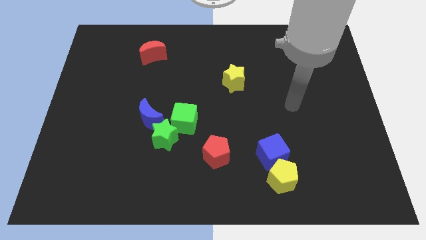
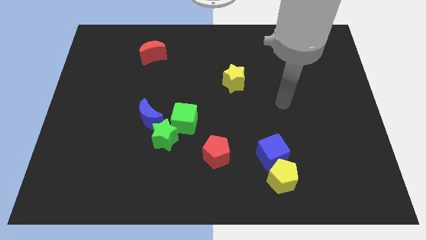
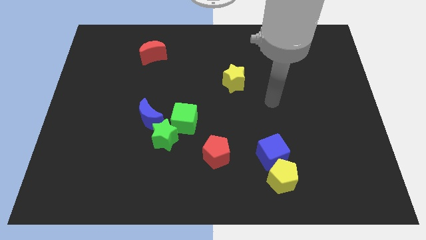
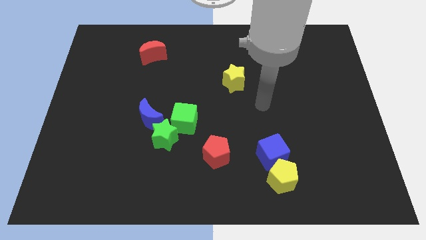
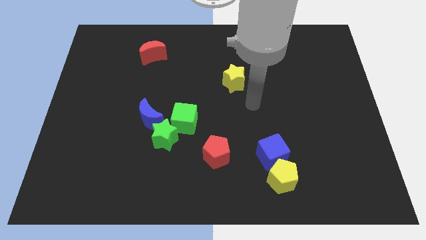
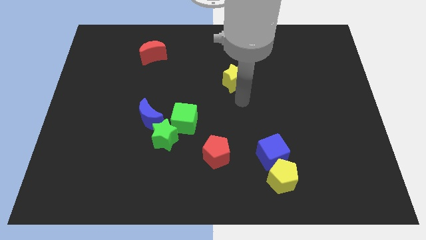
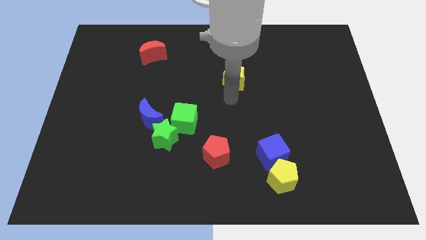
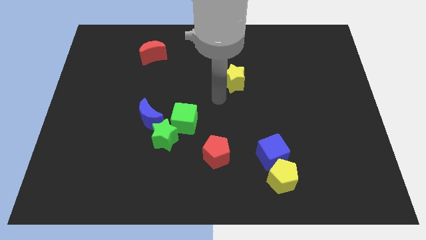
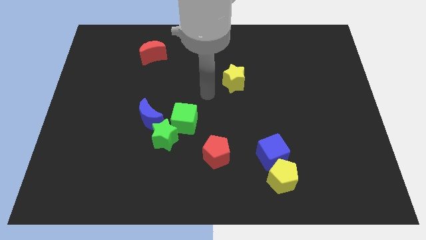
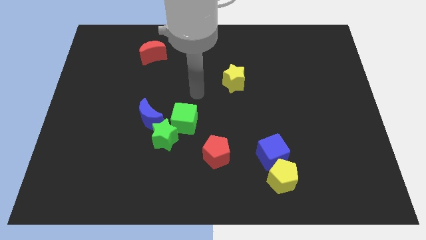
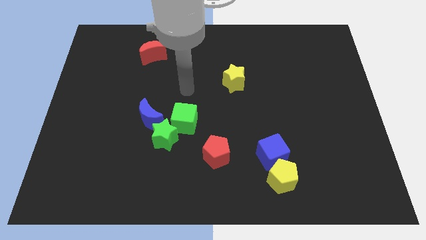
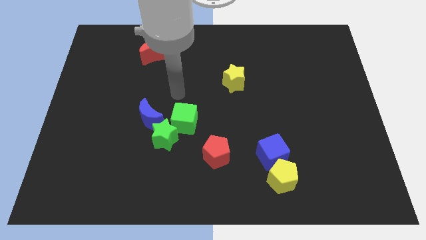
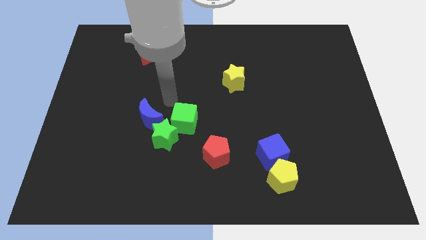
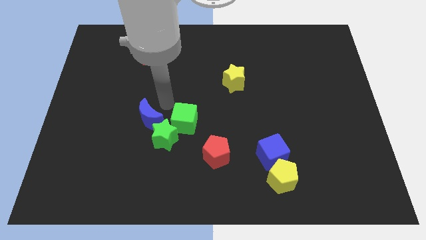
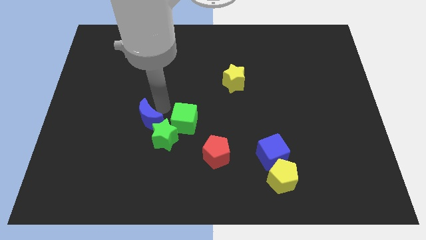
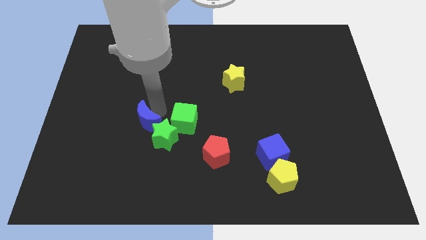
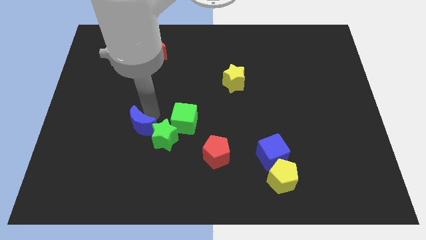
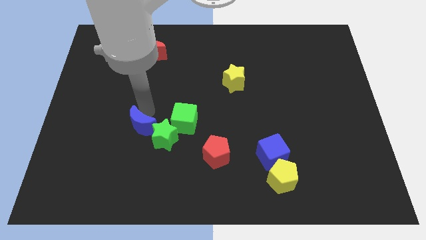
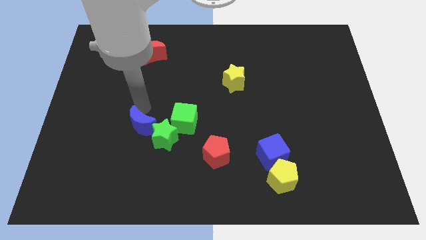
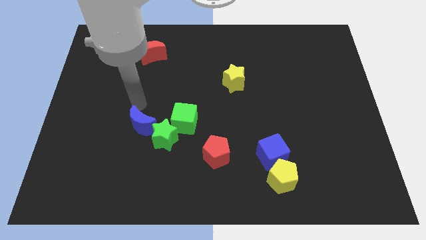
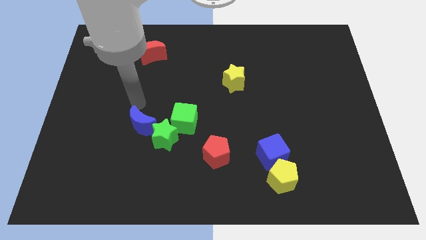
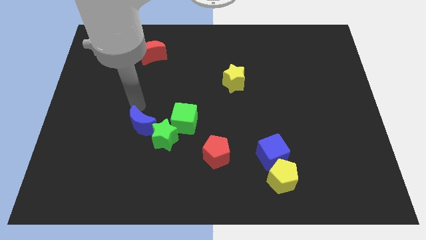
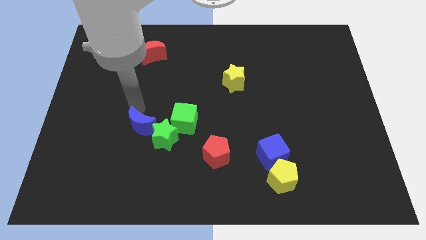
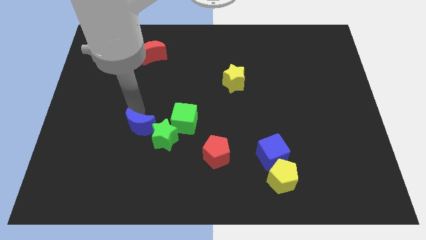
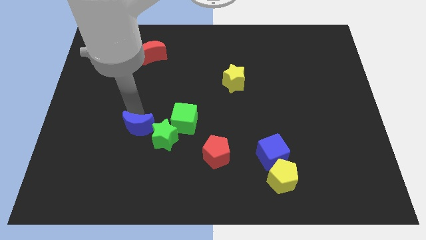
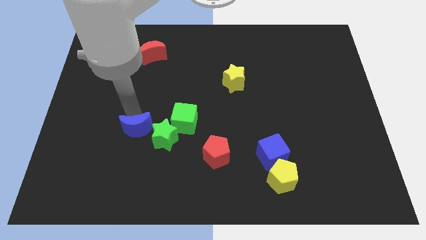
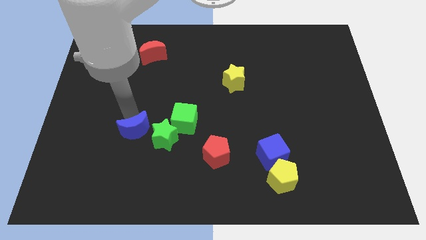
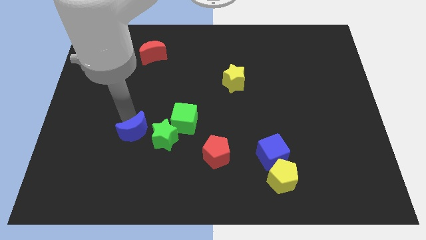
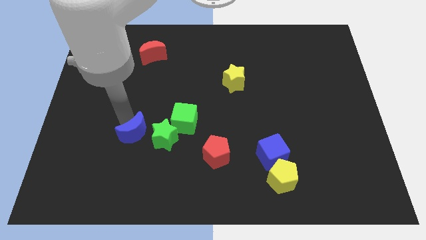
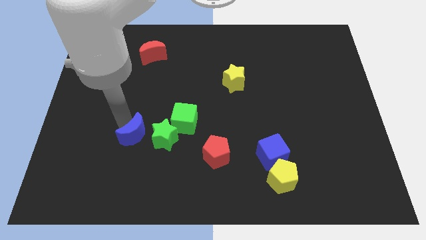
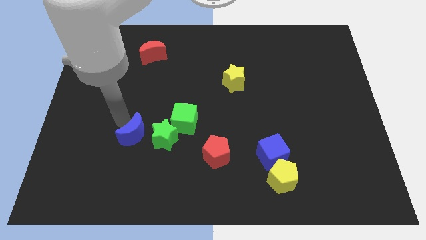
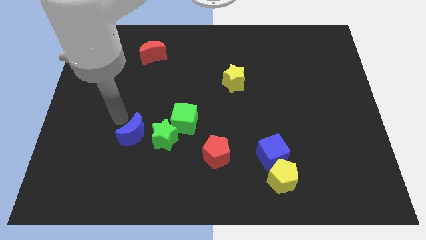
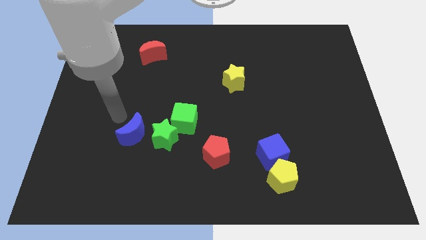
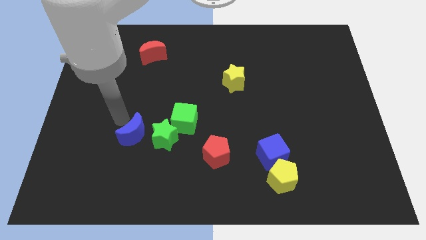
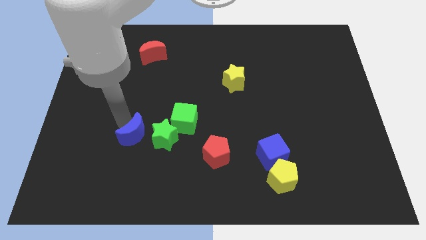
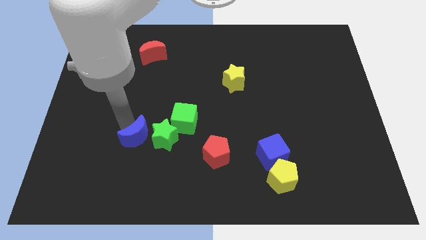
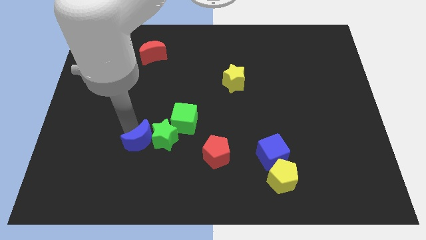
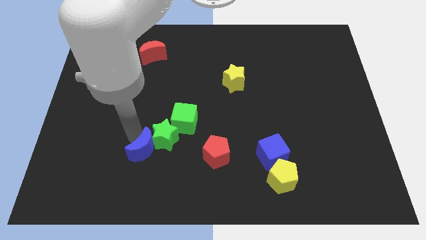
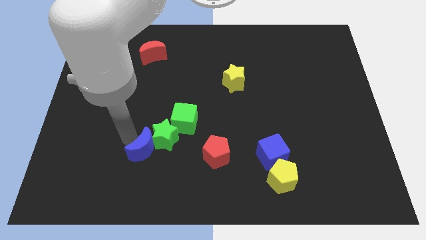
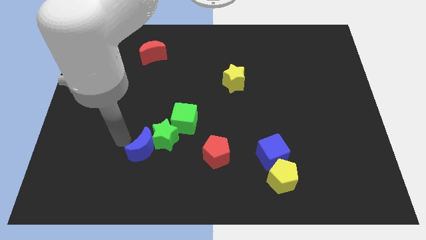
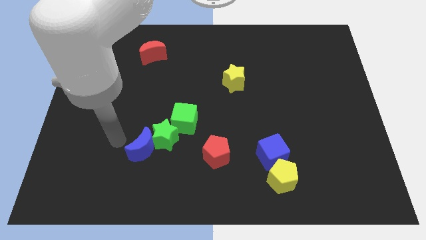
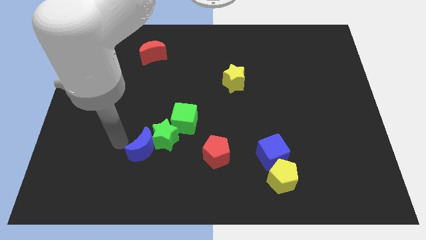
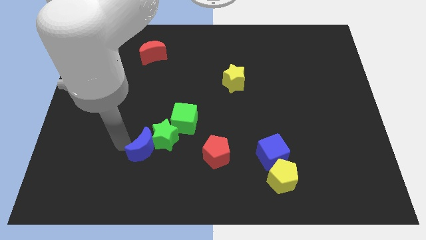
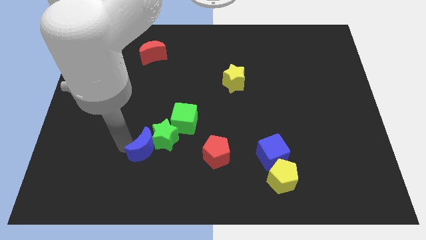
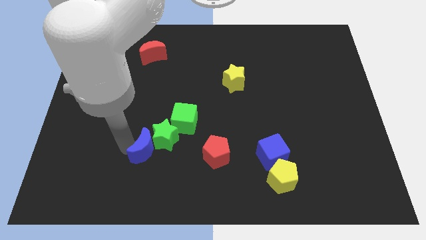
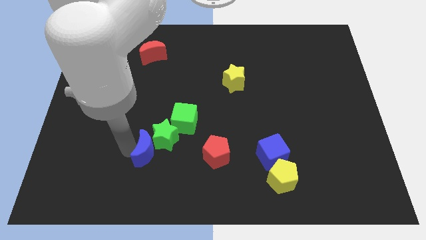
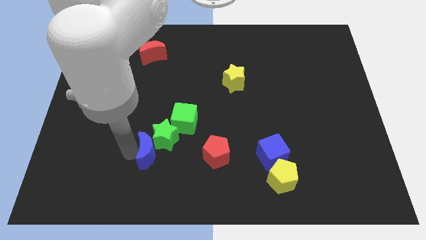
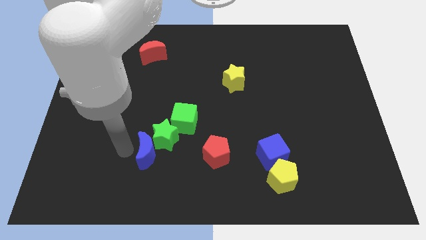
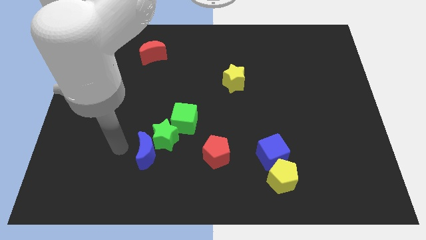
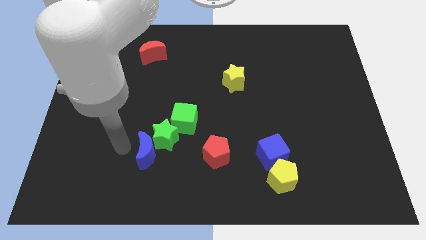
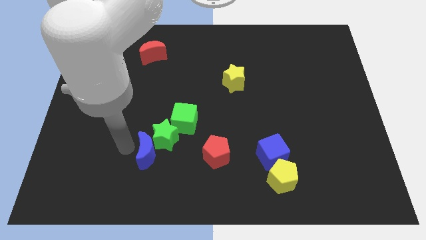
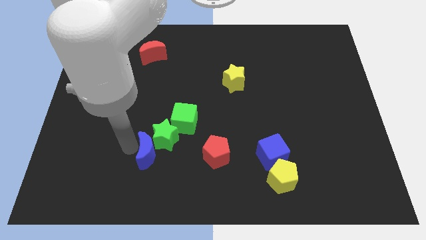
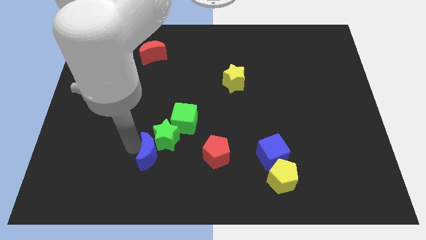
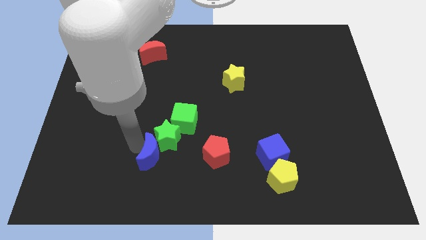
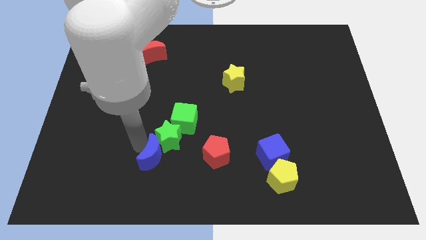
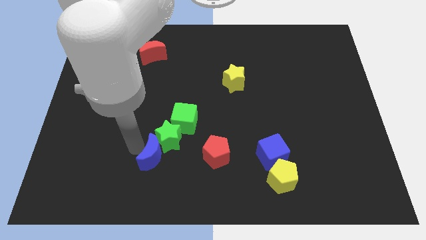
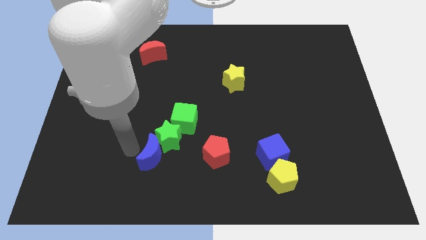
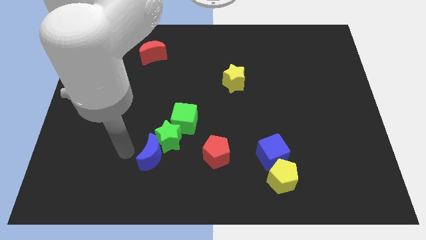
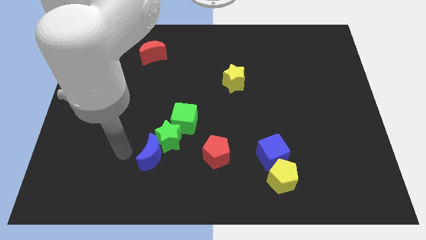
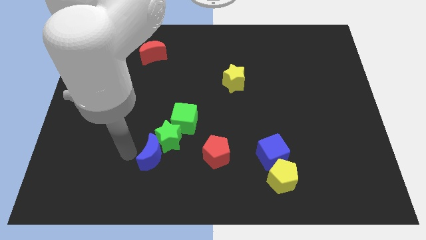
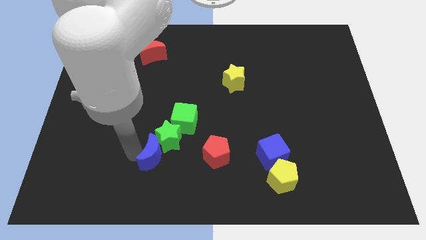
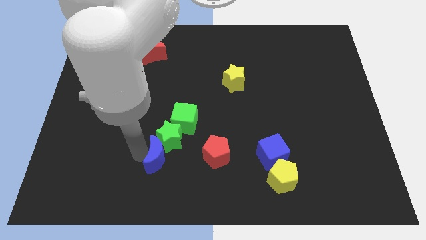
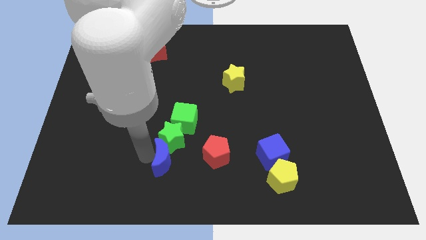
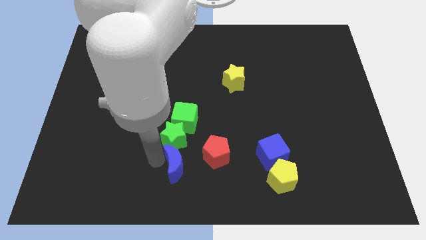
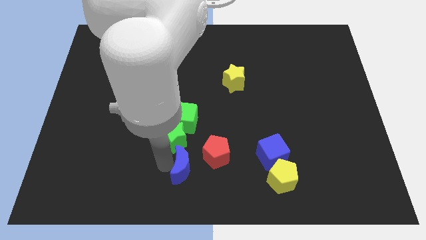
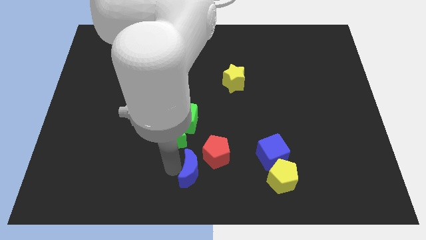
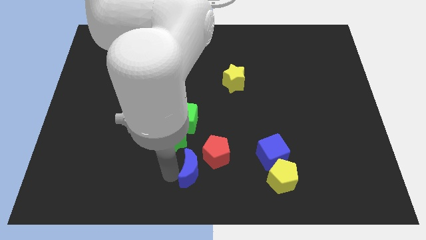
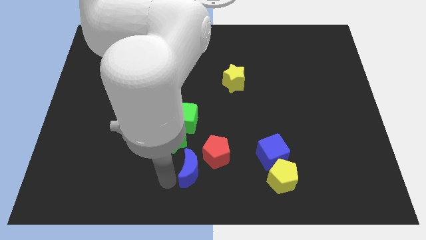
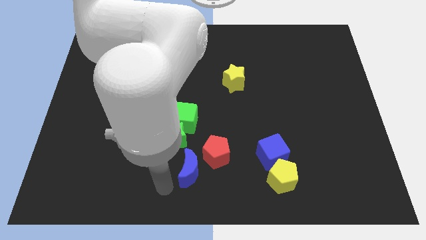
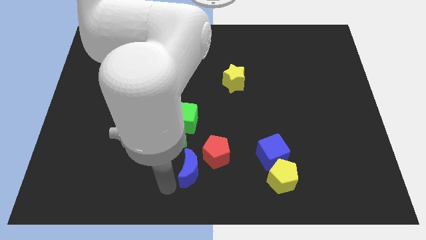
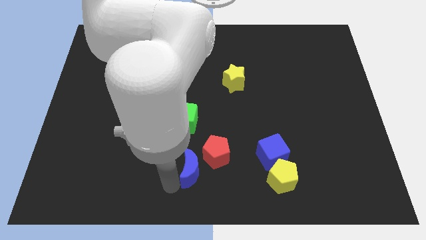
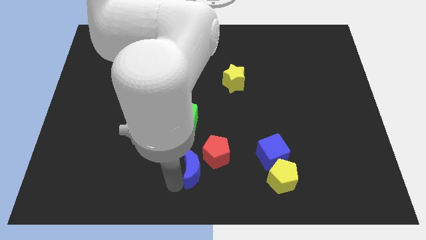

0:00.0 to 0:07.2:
put the blue moon close to the red pentagon

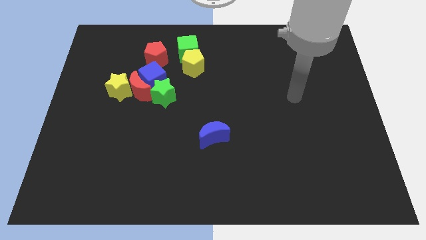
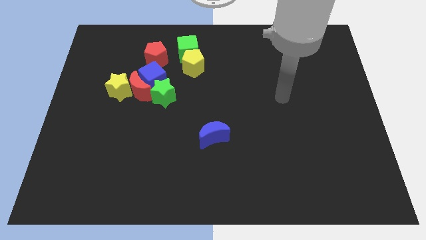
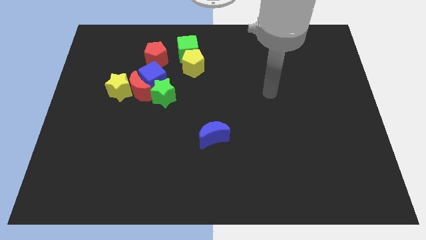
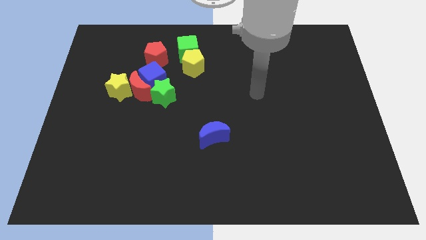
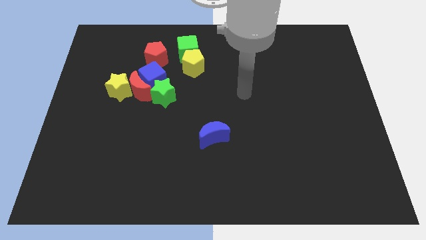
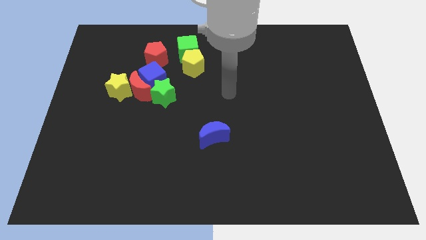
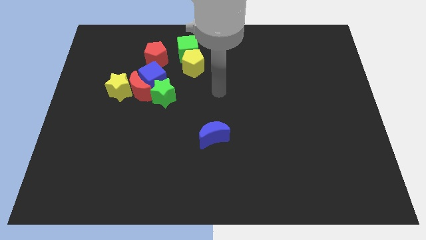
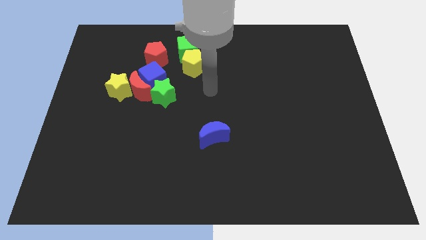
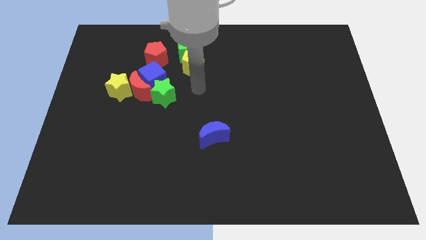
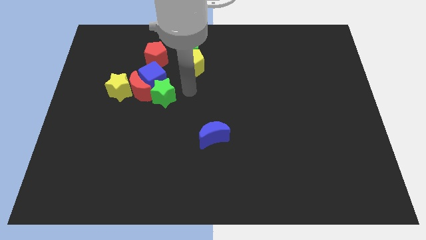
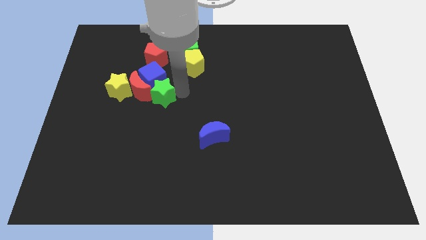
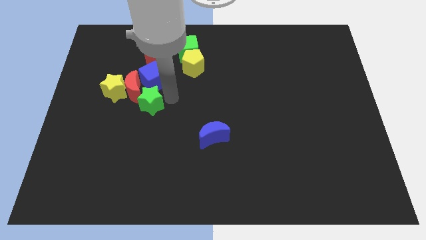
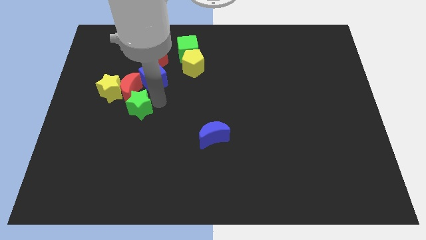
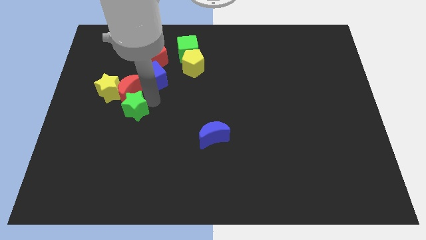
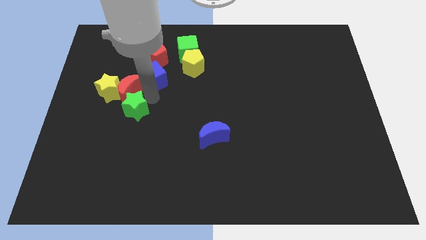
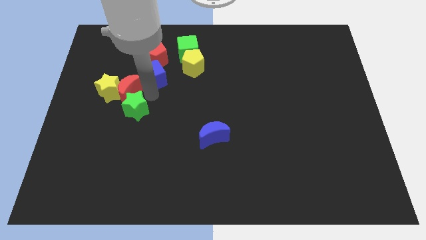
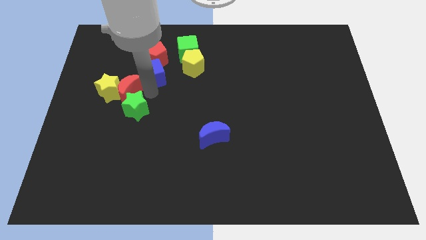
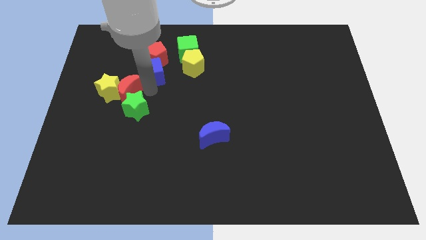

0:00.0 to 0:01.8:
put the blue cube to the red pentagon
